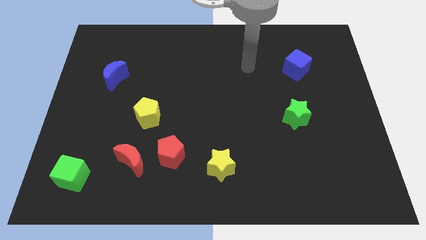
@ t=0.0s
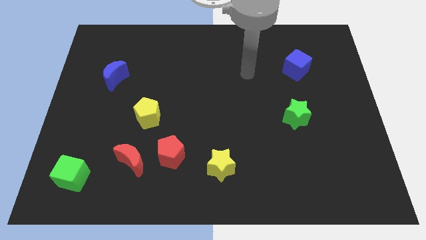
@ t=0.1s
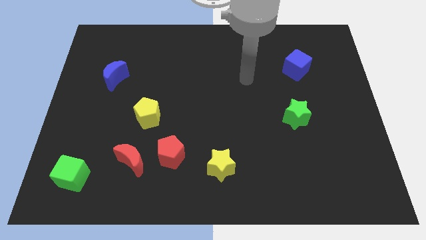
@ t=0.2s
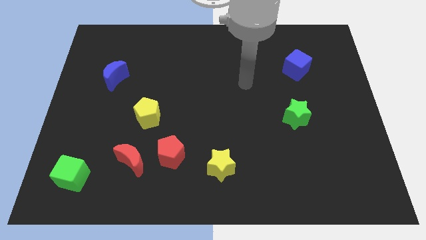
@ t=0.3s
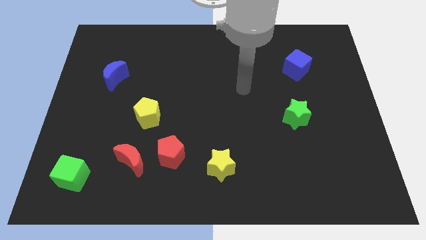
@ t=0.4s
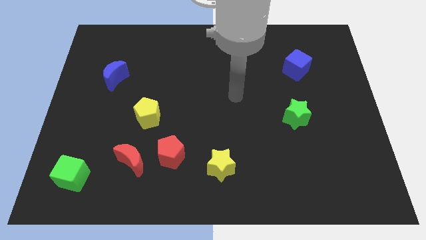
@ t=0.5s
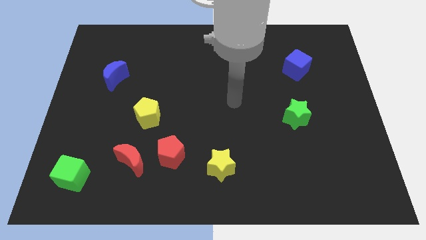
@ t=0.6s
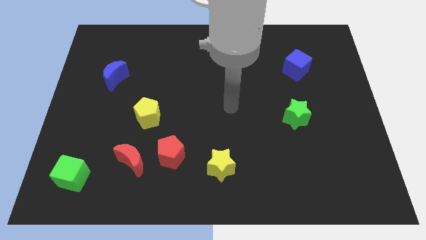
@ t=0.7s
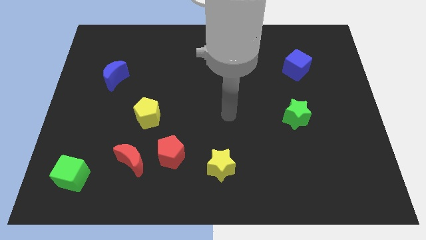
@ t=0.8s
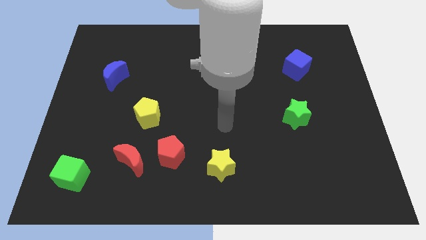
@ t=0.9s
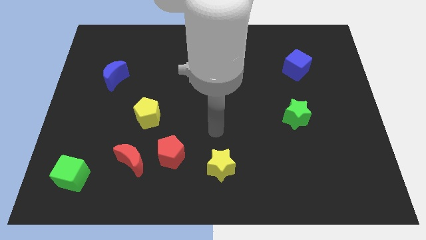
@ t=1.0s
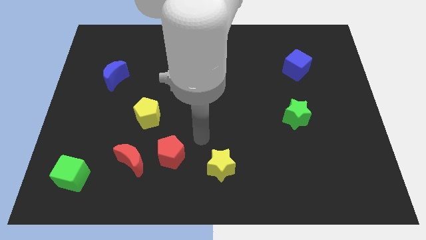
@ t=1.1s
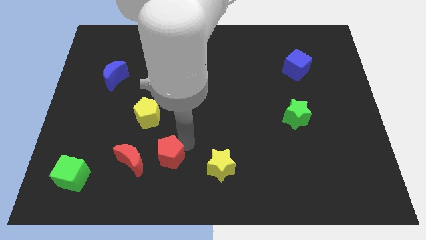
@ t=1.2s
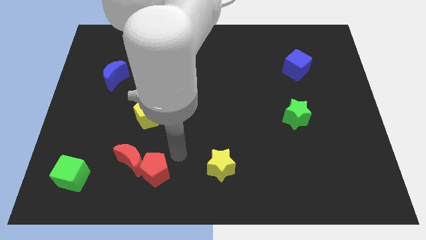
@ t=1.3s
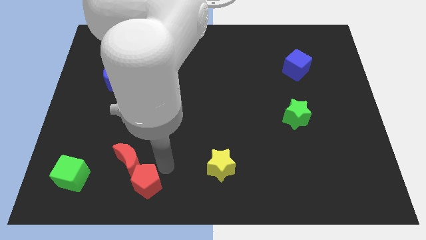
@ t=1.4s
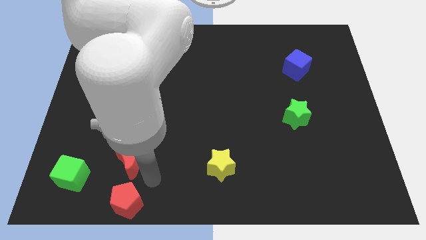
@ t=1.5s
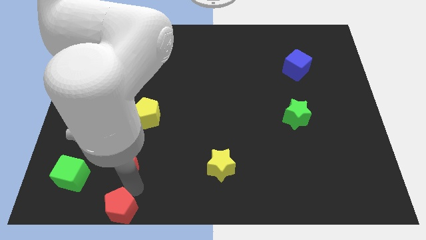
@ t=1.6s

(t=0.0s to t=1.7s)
move the red moon away from the red pentagon

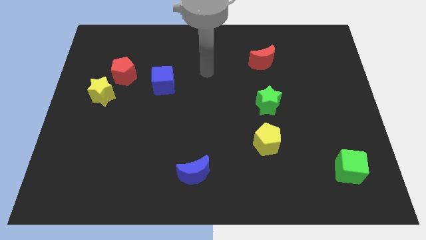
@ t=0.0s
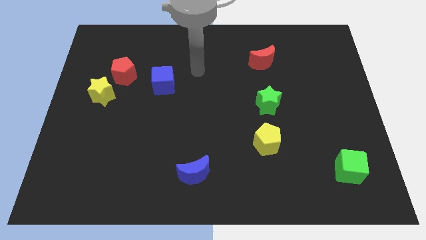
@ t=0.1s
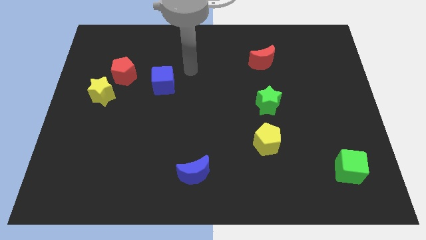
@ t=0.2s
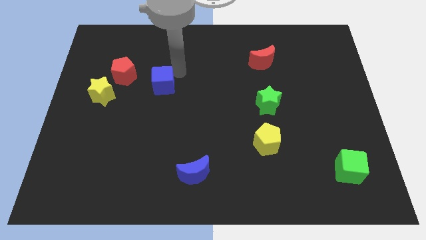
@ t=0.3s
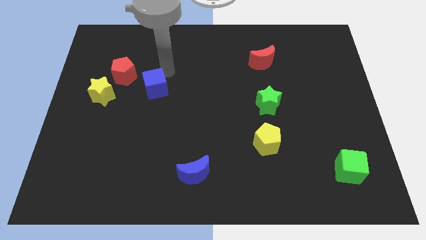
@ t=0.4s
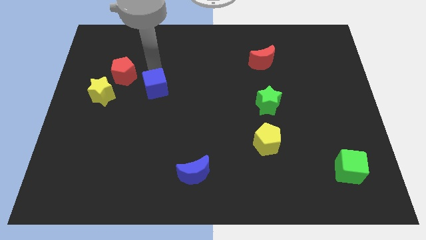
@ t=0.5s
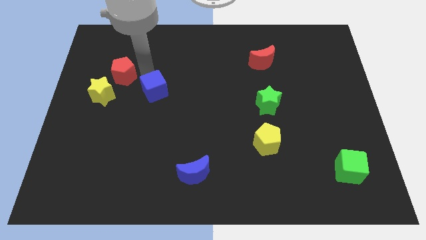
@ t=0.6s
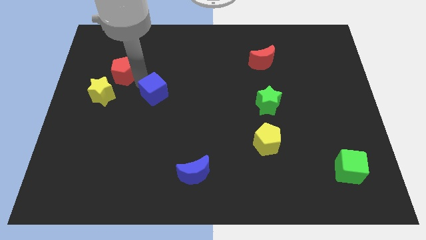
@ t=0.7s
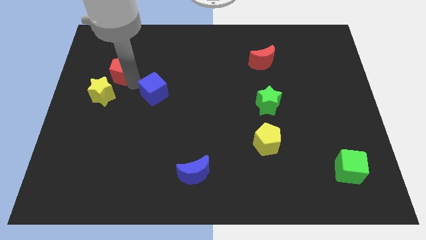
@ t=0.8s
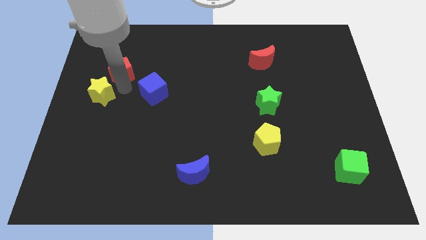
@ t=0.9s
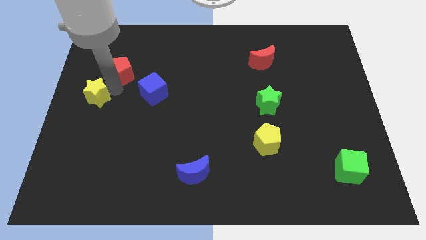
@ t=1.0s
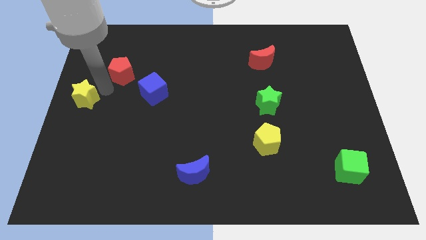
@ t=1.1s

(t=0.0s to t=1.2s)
separate the red pentagon from the yellow star

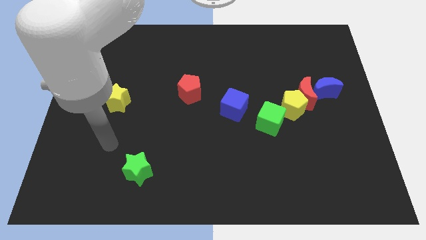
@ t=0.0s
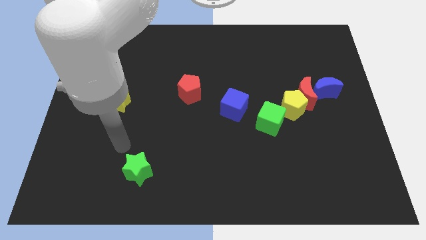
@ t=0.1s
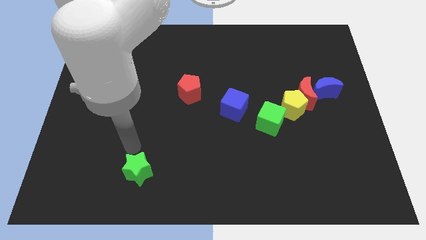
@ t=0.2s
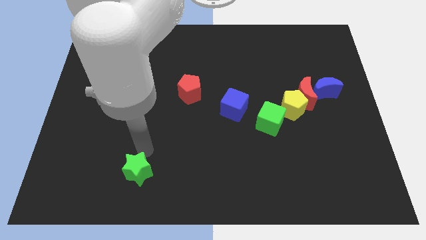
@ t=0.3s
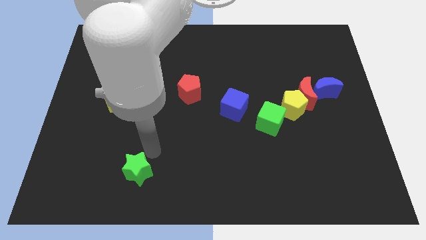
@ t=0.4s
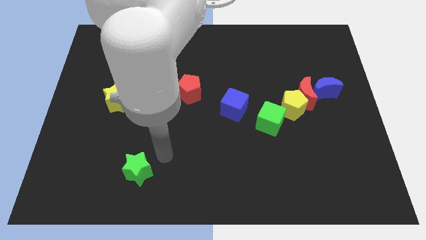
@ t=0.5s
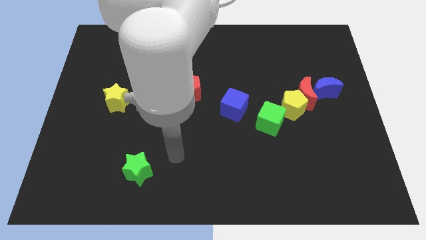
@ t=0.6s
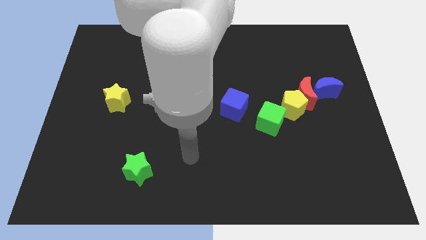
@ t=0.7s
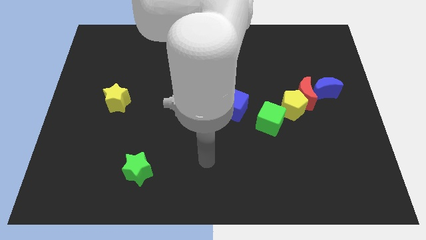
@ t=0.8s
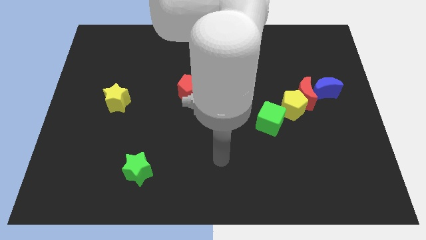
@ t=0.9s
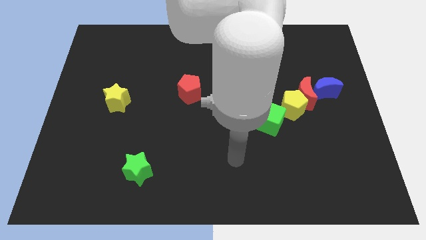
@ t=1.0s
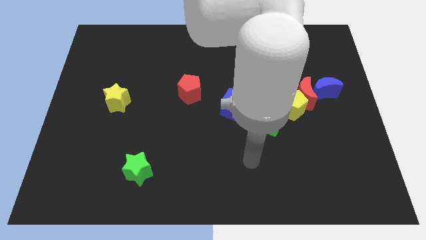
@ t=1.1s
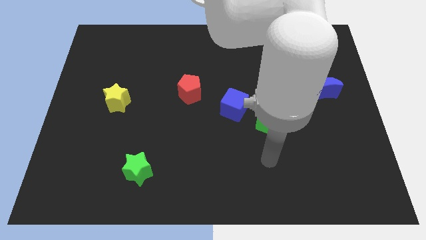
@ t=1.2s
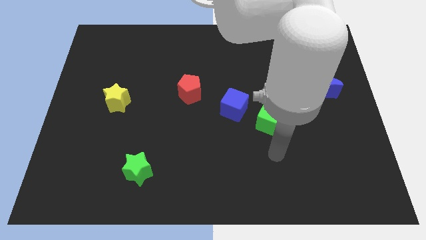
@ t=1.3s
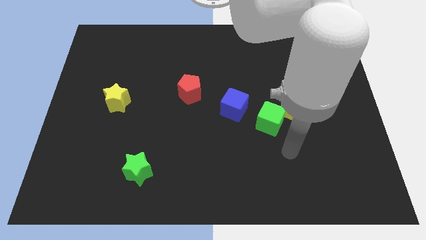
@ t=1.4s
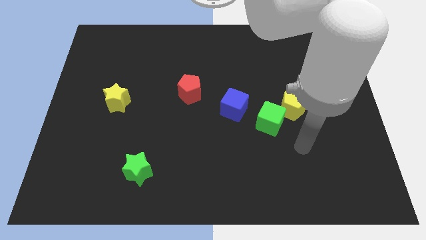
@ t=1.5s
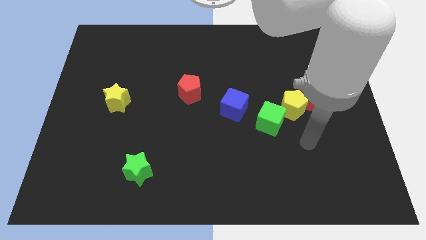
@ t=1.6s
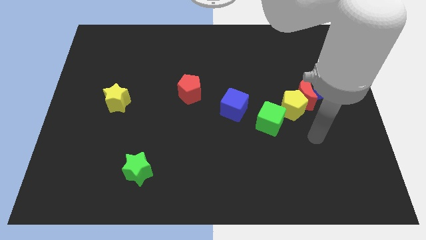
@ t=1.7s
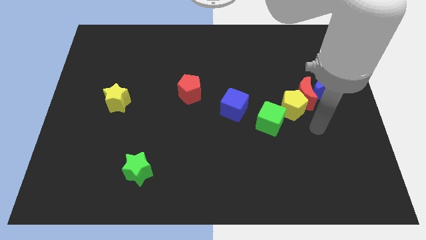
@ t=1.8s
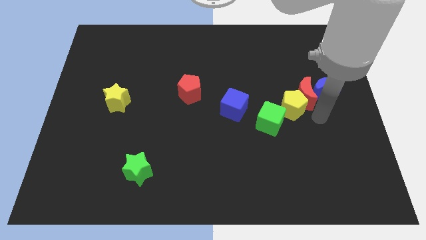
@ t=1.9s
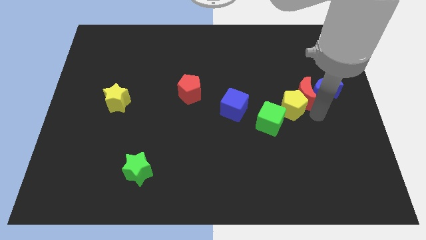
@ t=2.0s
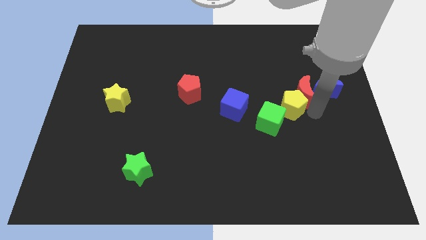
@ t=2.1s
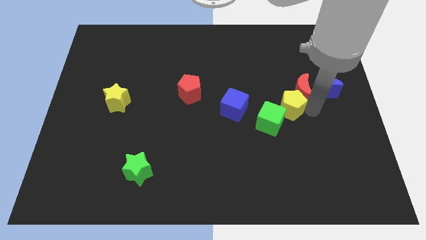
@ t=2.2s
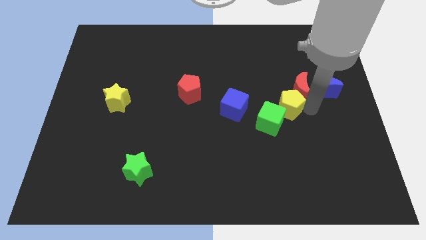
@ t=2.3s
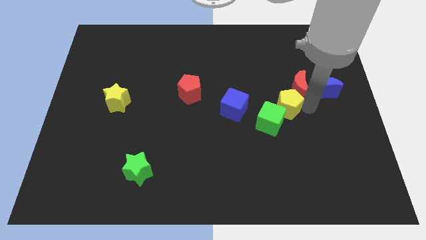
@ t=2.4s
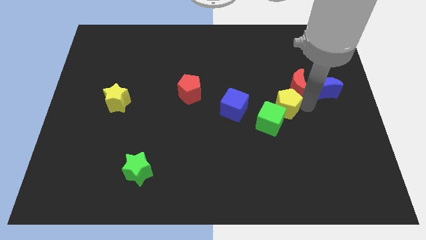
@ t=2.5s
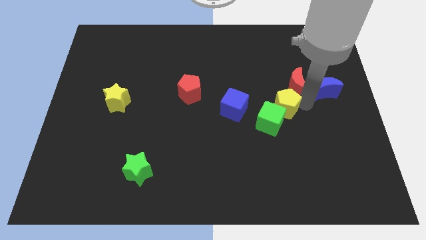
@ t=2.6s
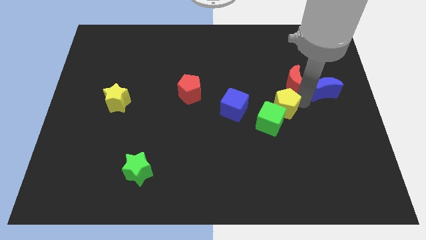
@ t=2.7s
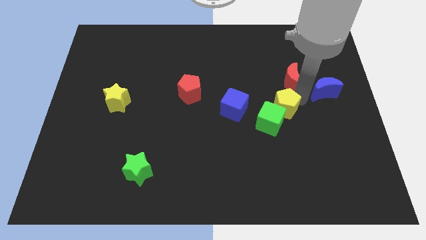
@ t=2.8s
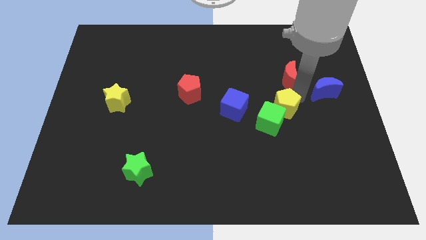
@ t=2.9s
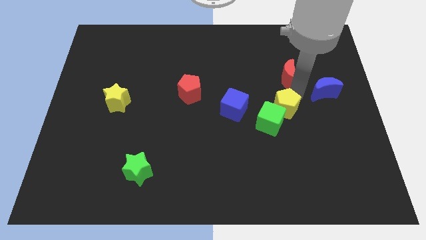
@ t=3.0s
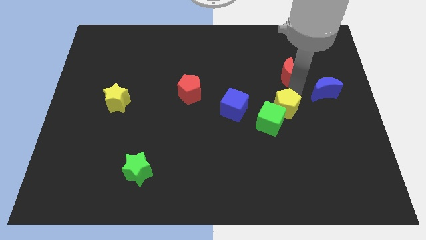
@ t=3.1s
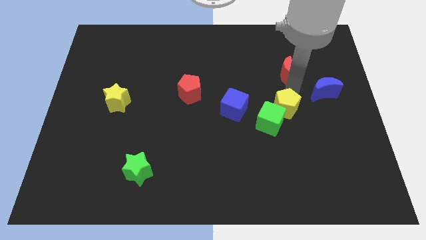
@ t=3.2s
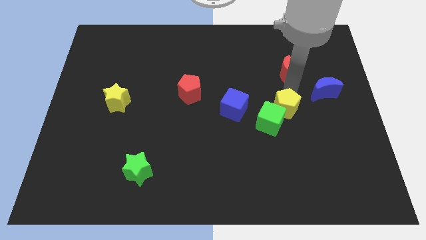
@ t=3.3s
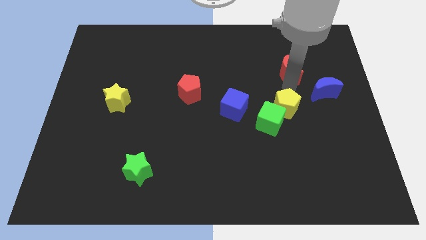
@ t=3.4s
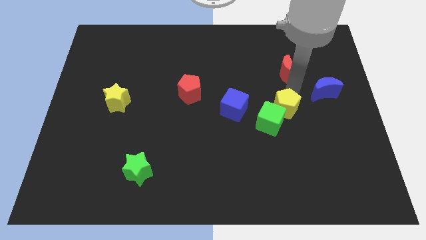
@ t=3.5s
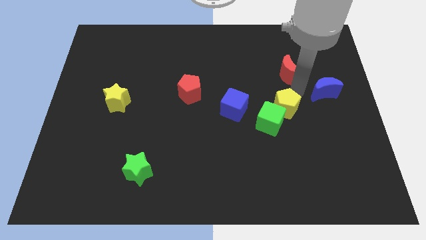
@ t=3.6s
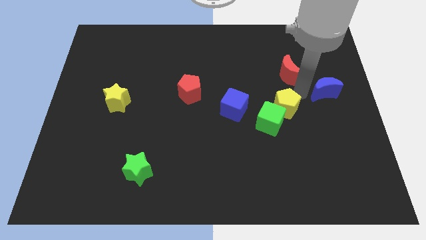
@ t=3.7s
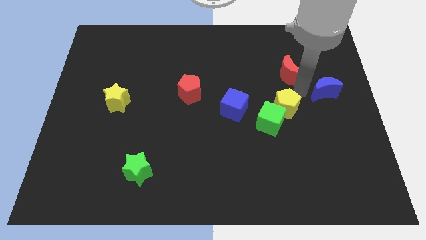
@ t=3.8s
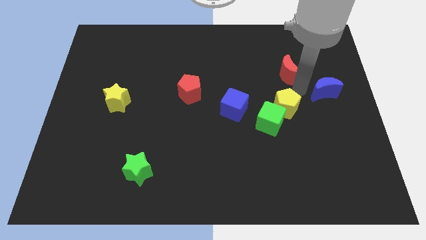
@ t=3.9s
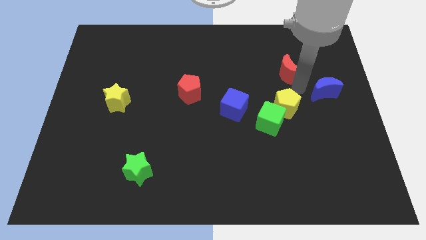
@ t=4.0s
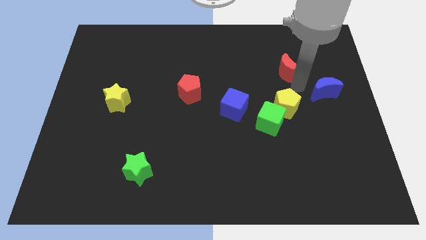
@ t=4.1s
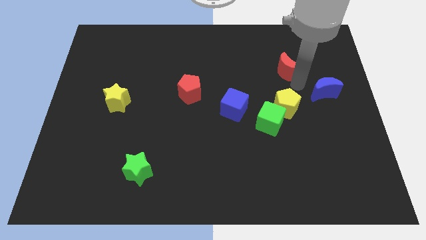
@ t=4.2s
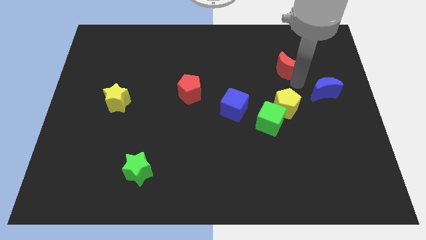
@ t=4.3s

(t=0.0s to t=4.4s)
pull the red moon apart from the yellow pentagon and blue moon

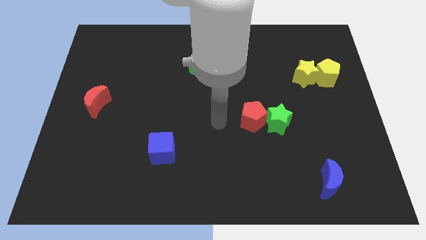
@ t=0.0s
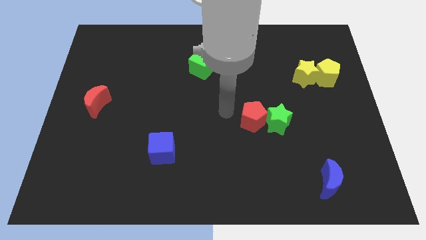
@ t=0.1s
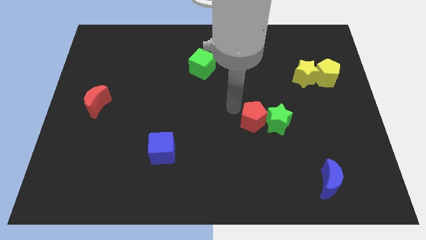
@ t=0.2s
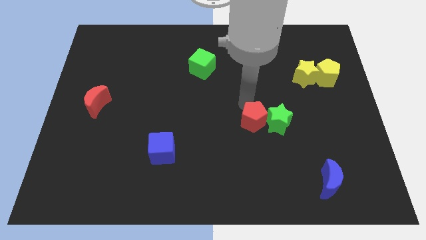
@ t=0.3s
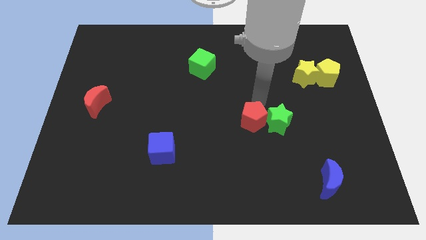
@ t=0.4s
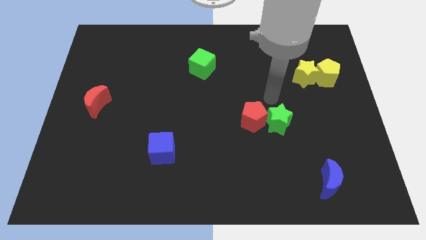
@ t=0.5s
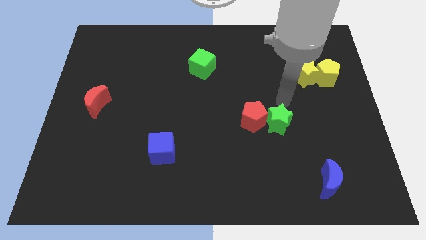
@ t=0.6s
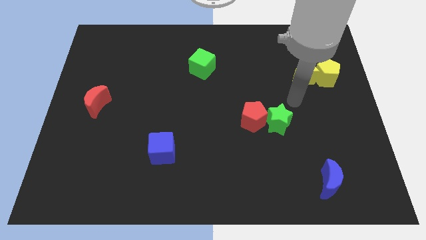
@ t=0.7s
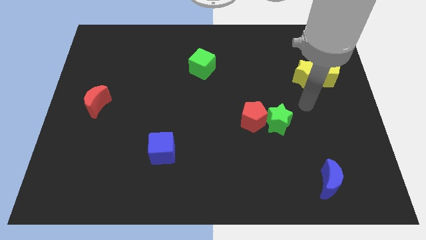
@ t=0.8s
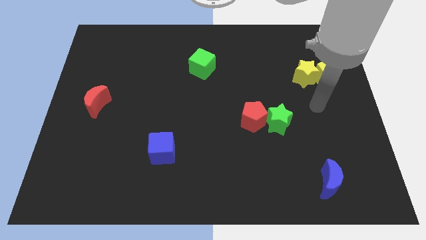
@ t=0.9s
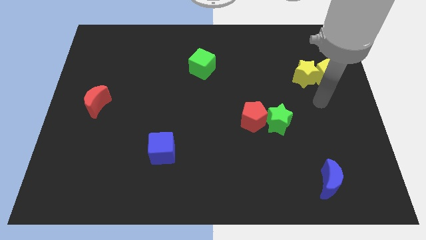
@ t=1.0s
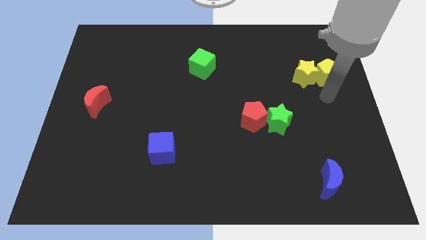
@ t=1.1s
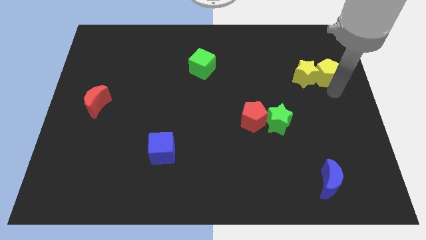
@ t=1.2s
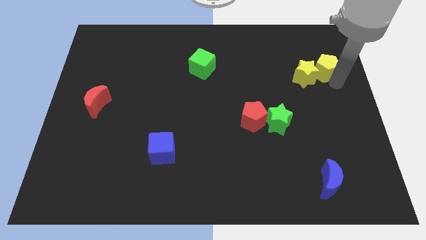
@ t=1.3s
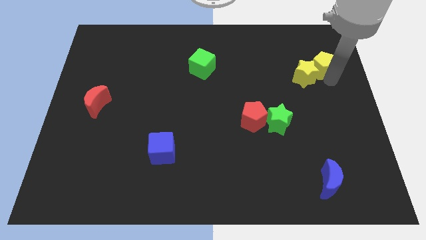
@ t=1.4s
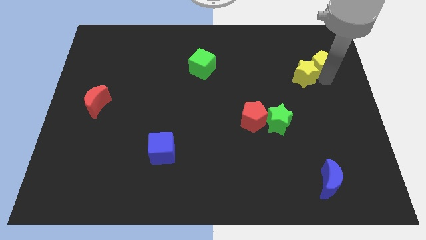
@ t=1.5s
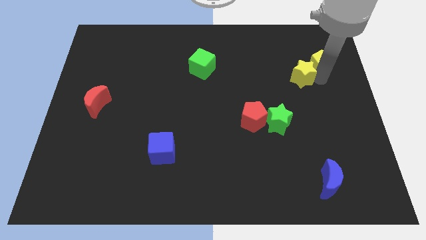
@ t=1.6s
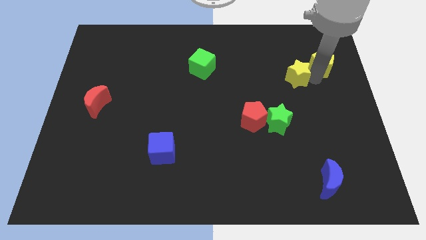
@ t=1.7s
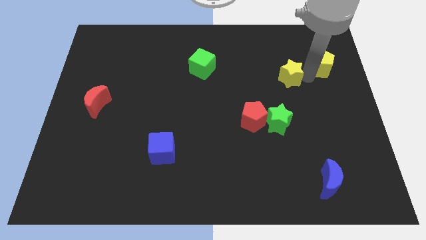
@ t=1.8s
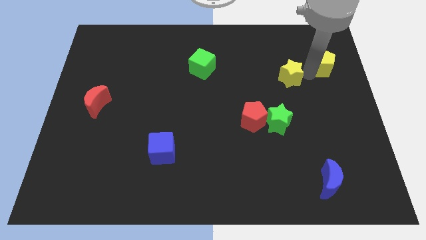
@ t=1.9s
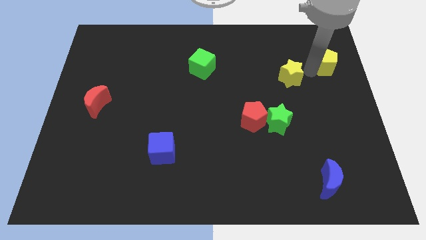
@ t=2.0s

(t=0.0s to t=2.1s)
separate the yellow star from the yellow pentagon
